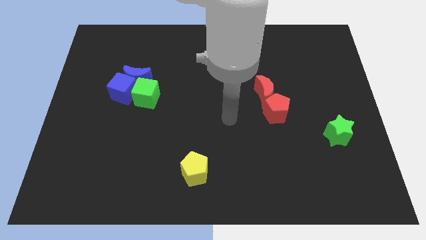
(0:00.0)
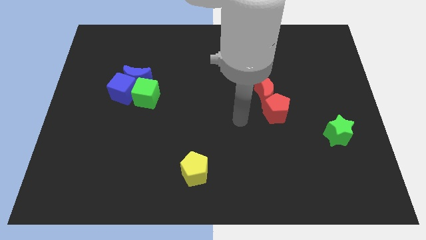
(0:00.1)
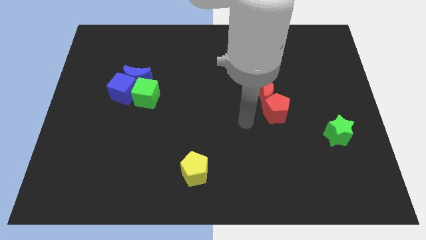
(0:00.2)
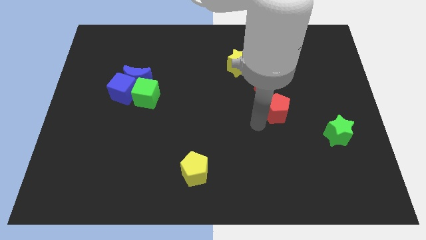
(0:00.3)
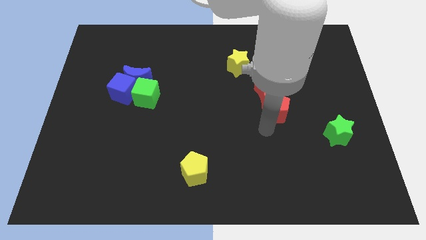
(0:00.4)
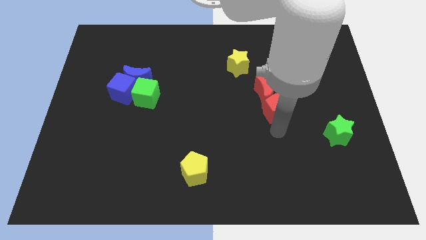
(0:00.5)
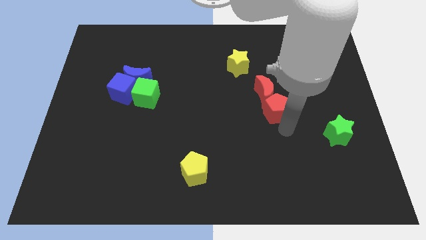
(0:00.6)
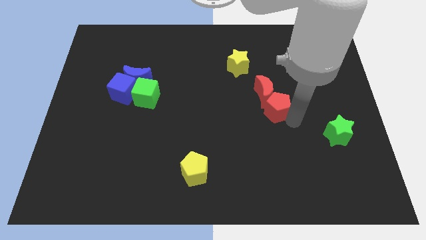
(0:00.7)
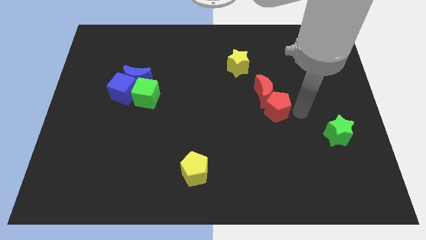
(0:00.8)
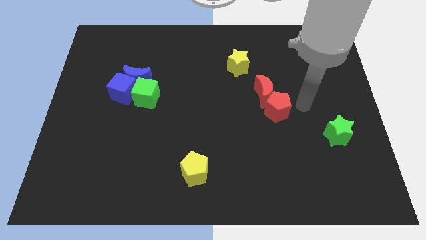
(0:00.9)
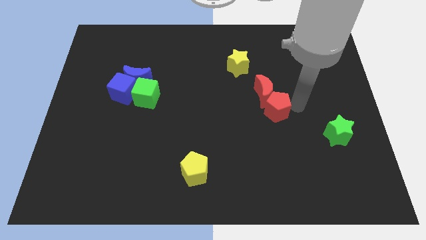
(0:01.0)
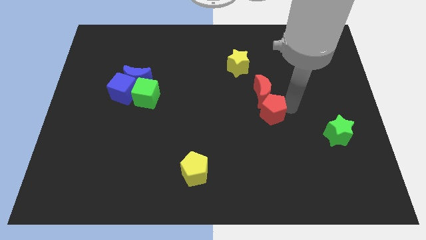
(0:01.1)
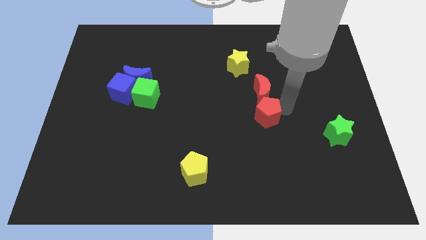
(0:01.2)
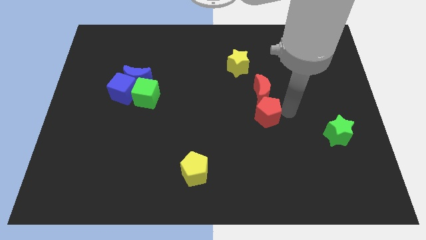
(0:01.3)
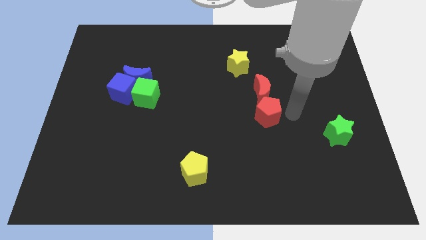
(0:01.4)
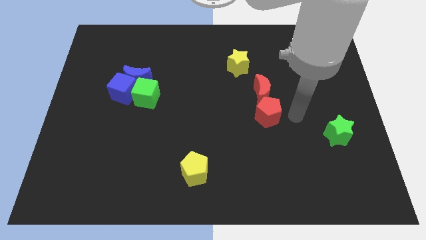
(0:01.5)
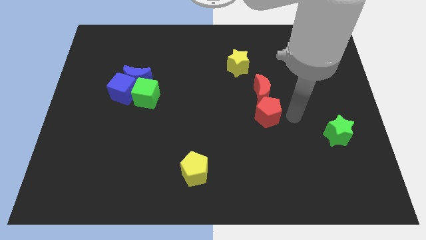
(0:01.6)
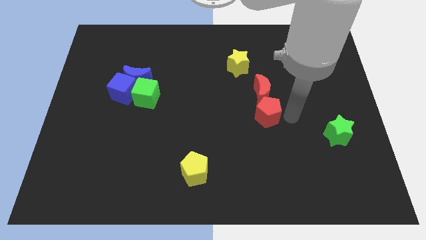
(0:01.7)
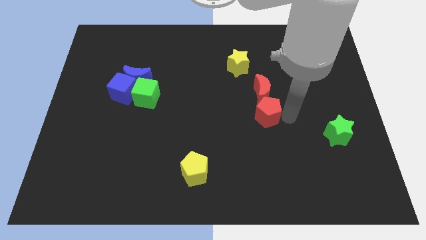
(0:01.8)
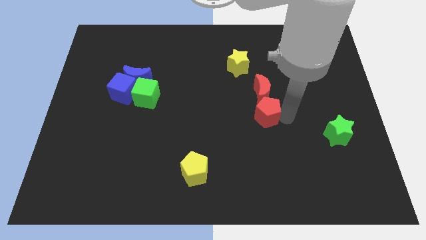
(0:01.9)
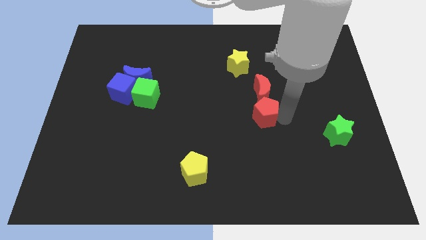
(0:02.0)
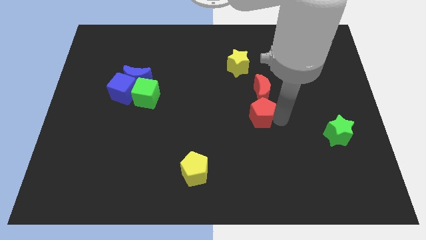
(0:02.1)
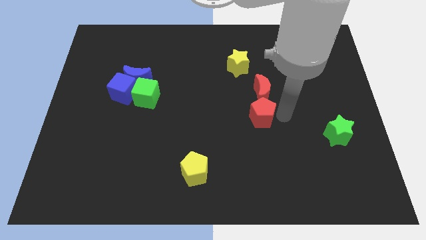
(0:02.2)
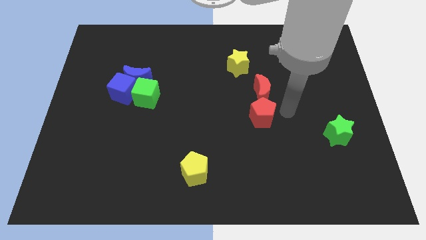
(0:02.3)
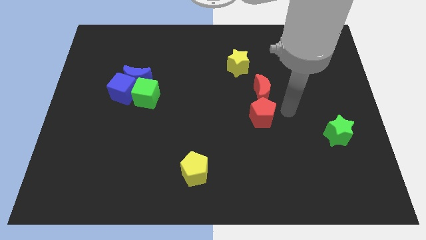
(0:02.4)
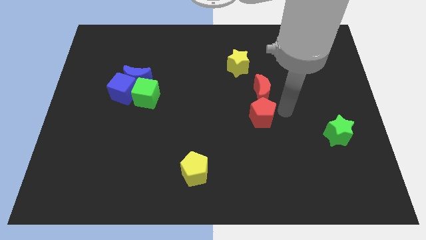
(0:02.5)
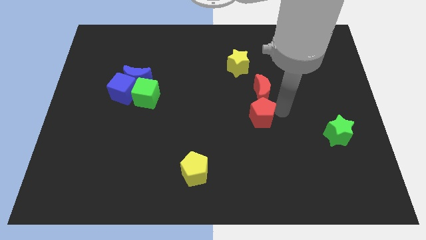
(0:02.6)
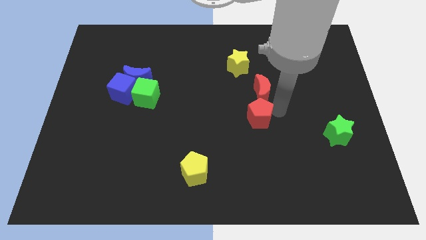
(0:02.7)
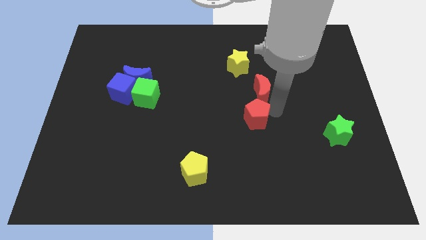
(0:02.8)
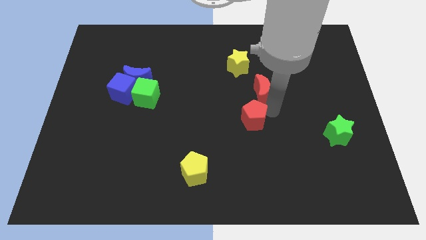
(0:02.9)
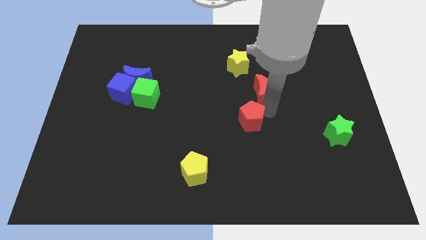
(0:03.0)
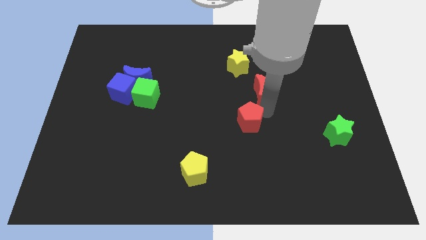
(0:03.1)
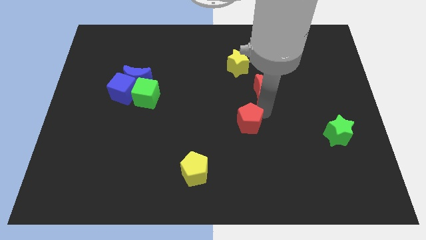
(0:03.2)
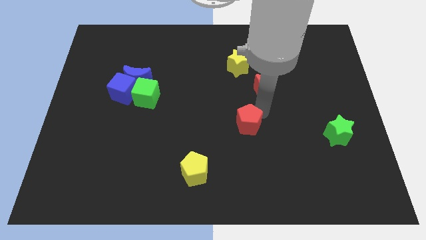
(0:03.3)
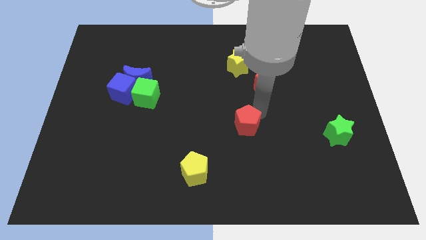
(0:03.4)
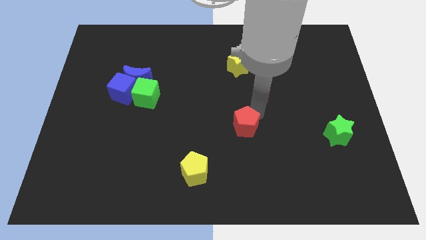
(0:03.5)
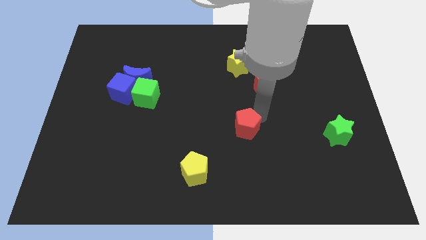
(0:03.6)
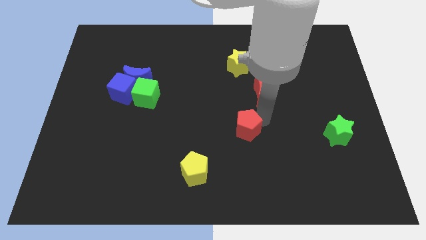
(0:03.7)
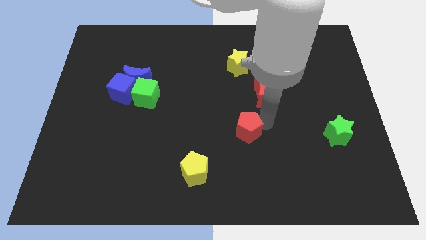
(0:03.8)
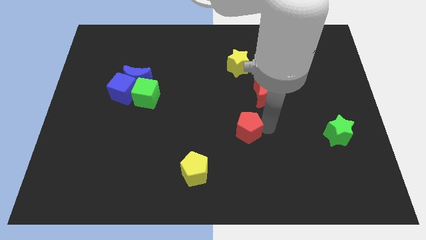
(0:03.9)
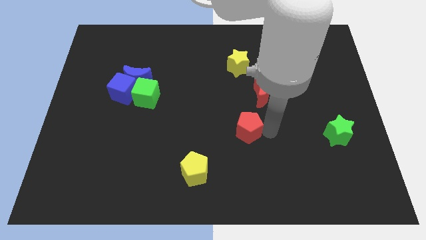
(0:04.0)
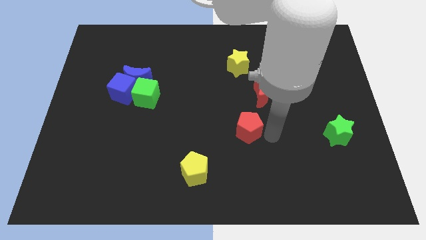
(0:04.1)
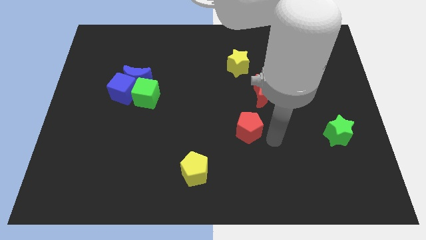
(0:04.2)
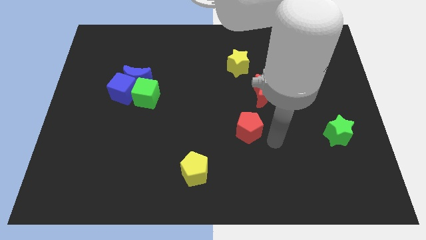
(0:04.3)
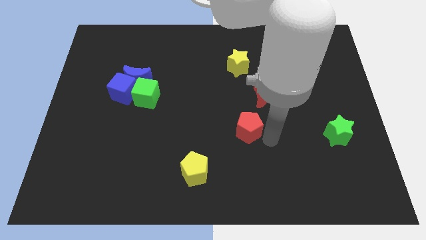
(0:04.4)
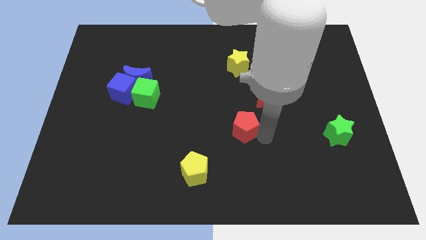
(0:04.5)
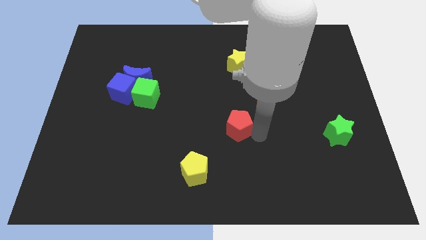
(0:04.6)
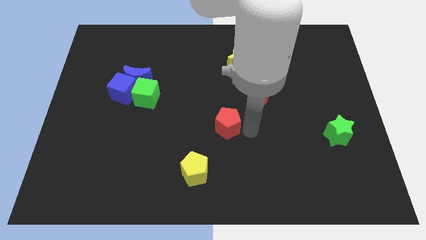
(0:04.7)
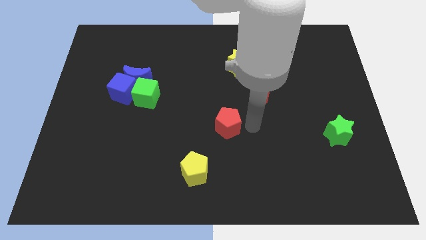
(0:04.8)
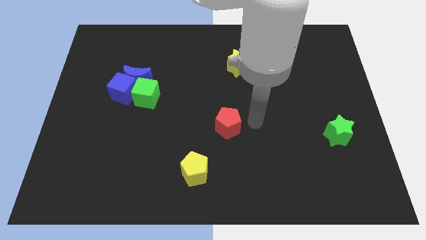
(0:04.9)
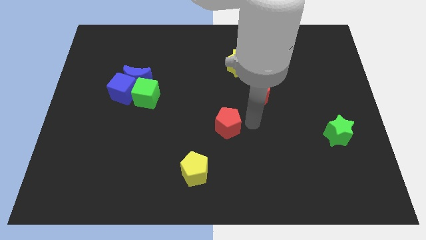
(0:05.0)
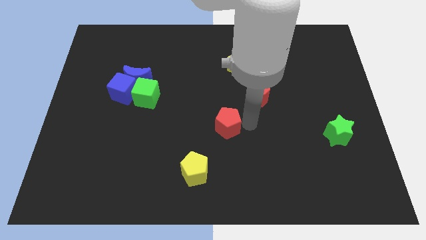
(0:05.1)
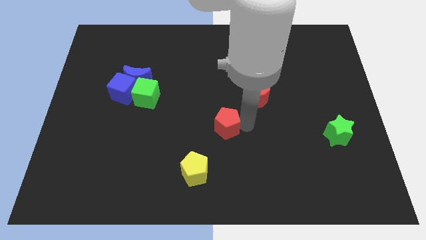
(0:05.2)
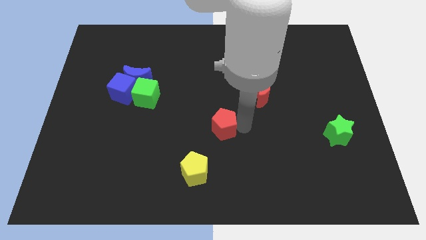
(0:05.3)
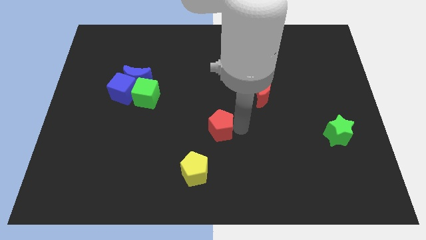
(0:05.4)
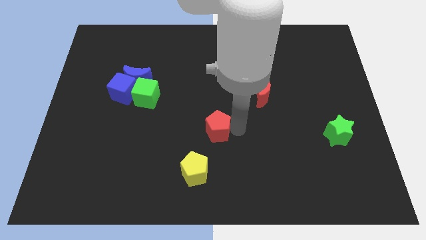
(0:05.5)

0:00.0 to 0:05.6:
put the red pentagon above the yellow pentagon

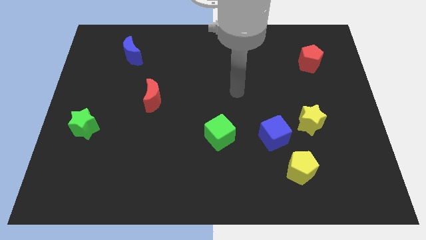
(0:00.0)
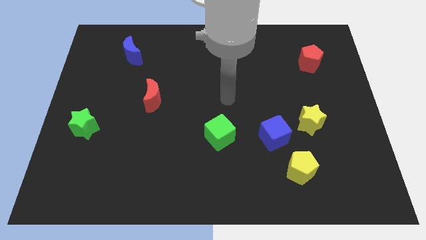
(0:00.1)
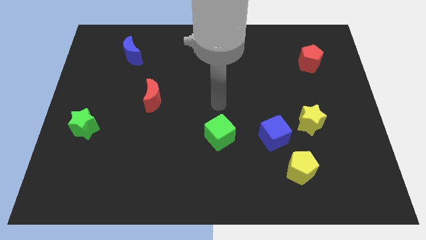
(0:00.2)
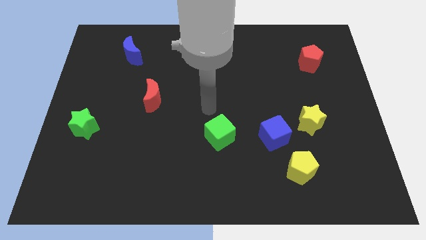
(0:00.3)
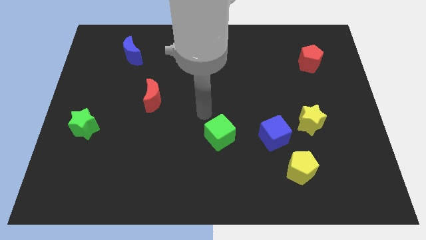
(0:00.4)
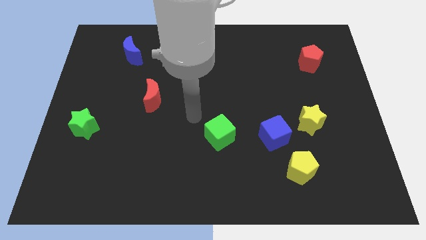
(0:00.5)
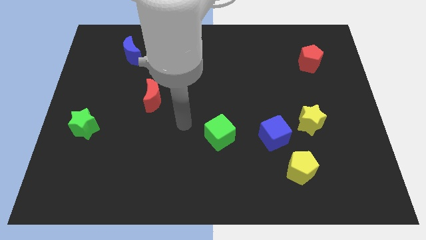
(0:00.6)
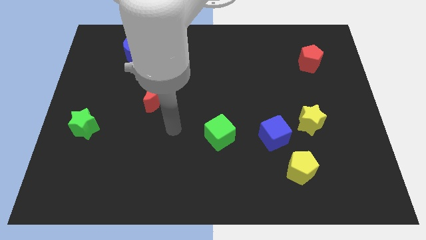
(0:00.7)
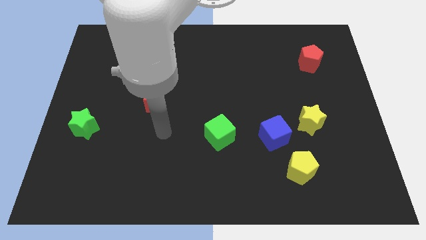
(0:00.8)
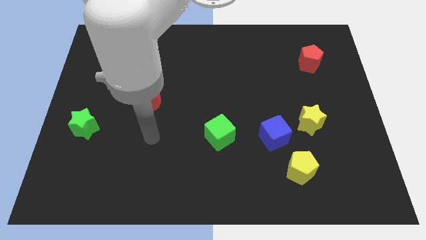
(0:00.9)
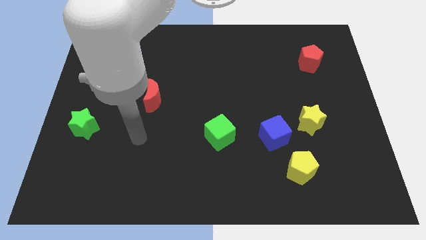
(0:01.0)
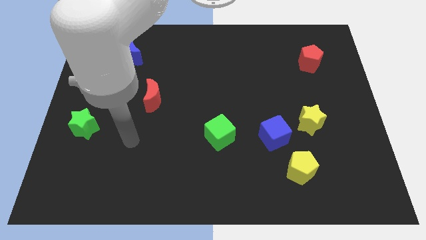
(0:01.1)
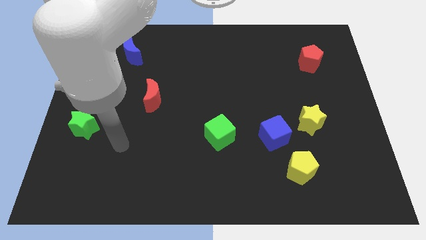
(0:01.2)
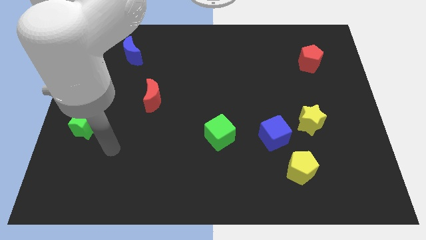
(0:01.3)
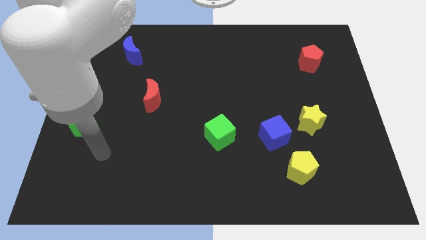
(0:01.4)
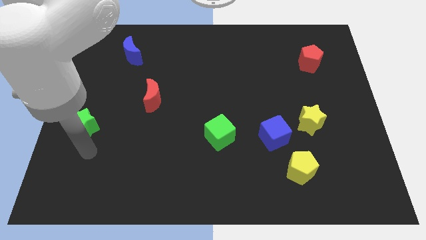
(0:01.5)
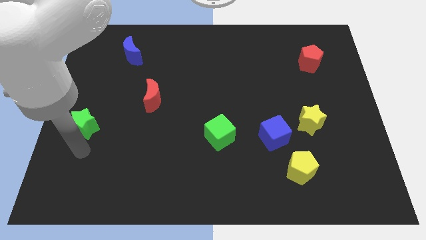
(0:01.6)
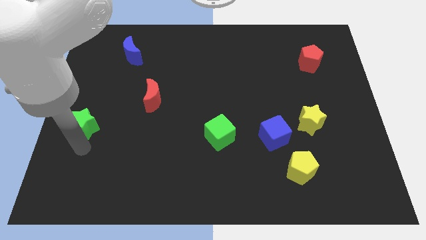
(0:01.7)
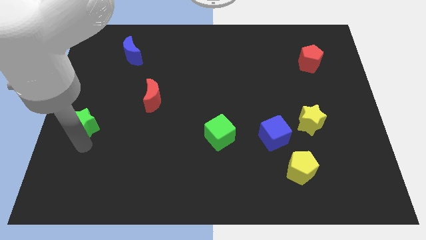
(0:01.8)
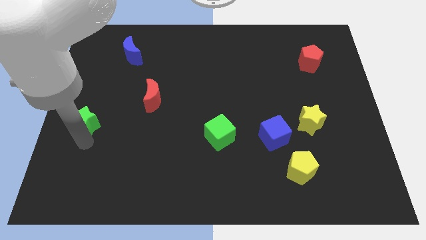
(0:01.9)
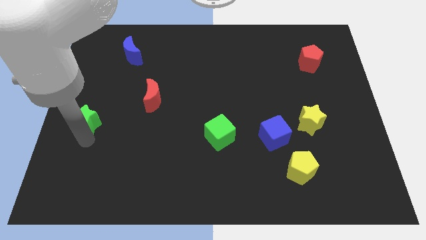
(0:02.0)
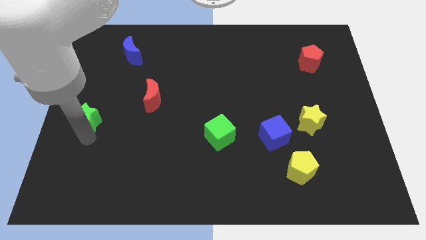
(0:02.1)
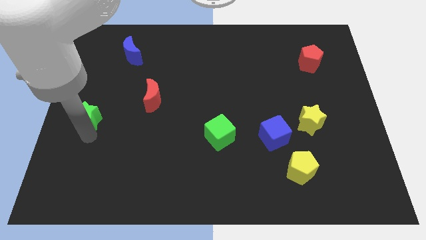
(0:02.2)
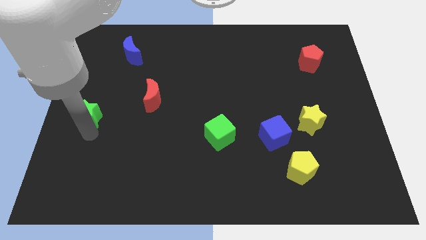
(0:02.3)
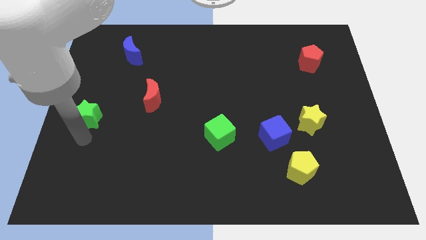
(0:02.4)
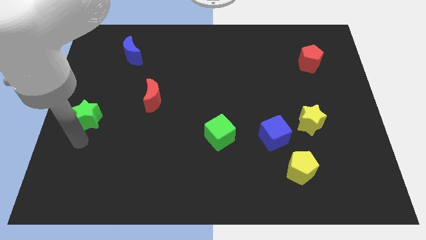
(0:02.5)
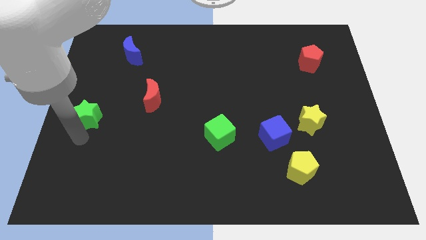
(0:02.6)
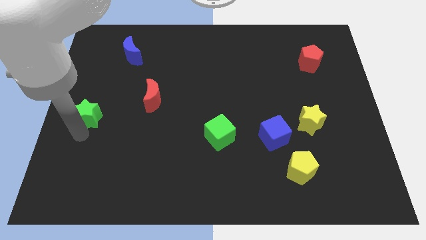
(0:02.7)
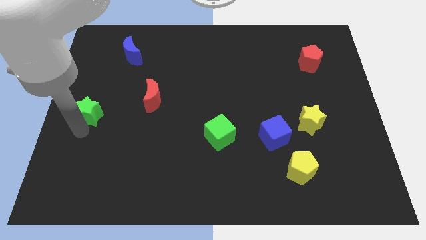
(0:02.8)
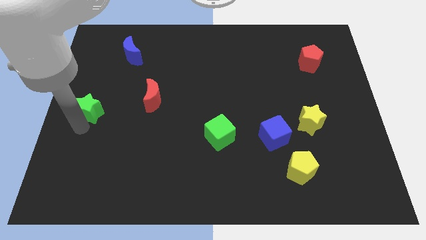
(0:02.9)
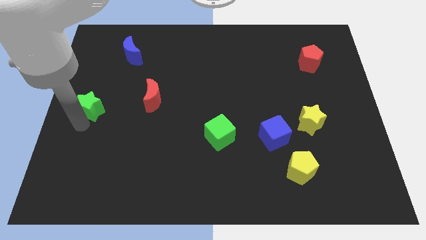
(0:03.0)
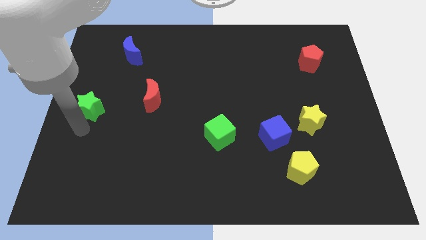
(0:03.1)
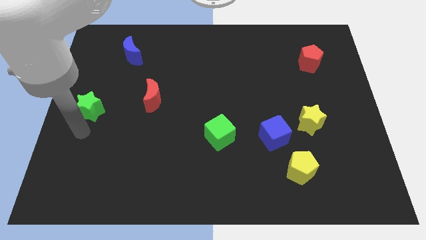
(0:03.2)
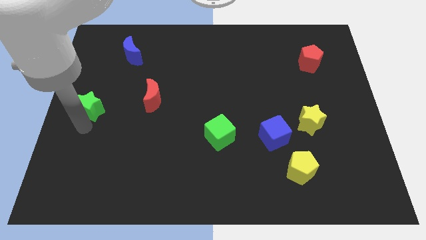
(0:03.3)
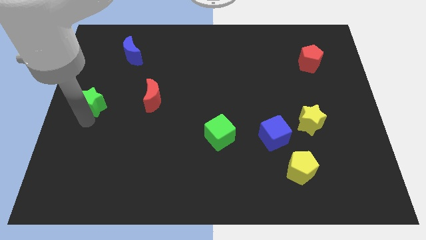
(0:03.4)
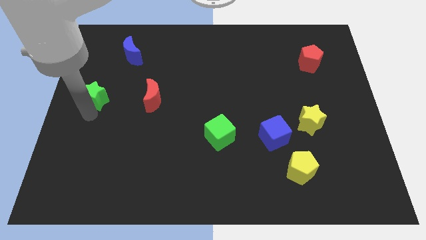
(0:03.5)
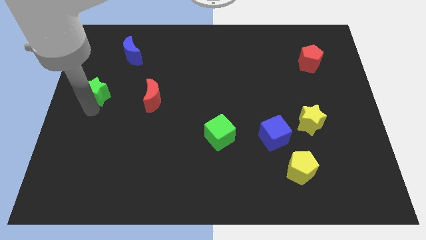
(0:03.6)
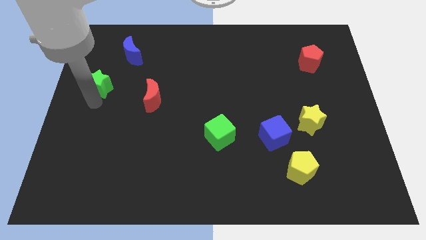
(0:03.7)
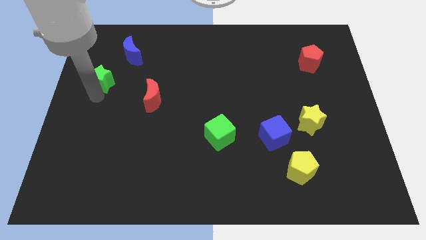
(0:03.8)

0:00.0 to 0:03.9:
push the green star to the bottom left side of the blue moon
